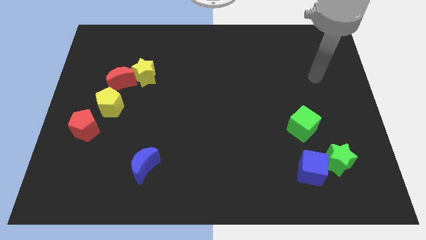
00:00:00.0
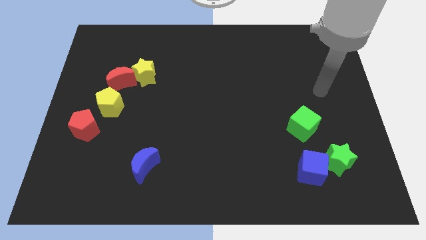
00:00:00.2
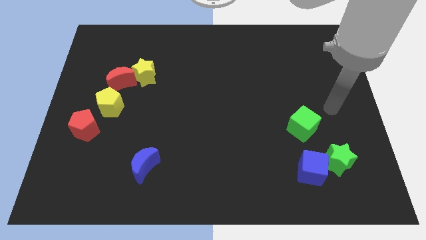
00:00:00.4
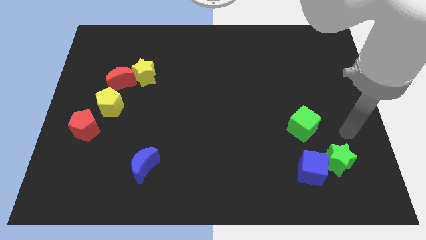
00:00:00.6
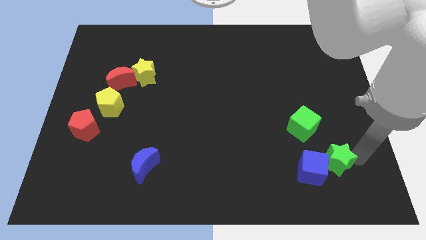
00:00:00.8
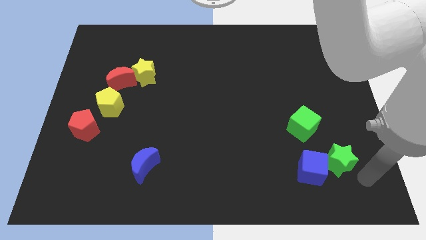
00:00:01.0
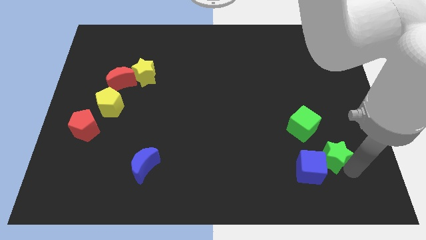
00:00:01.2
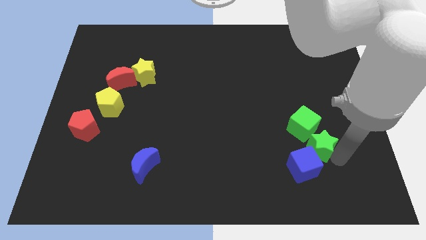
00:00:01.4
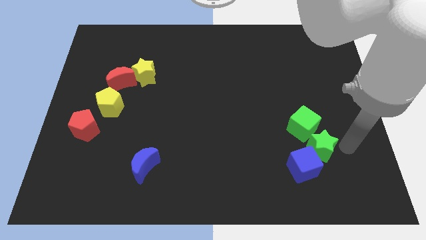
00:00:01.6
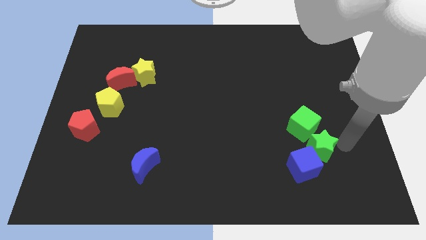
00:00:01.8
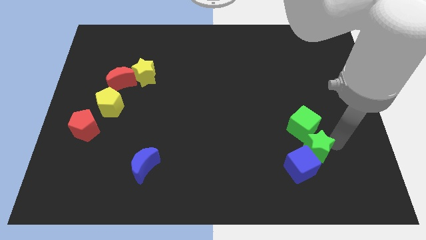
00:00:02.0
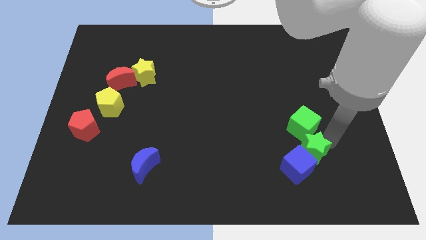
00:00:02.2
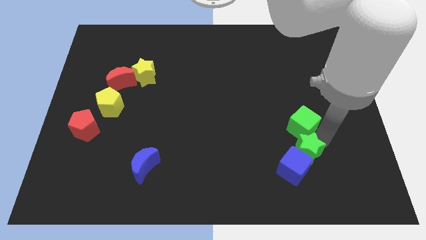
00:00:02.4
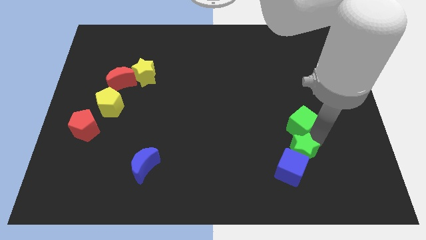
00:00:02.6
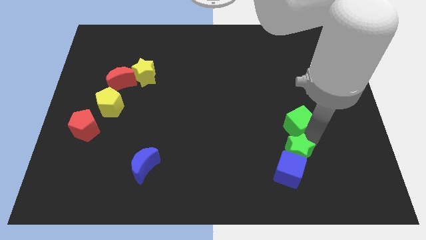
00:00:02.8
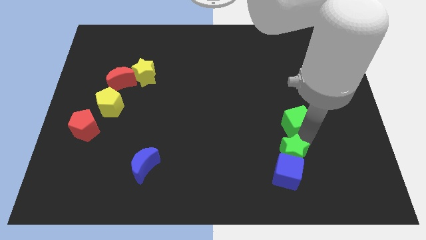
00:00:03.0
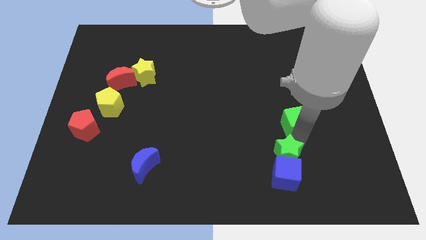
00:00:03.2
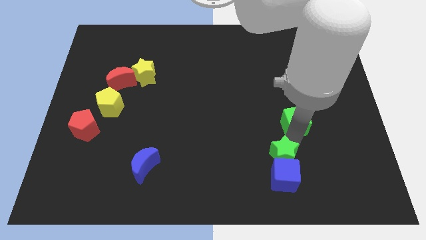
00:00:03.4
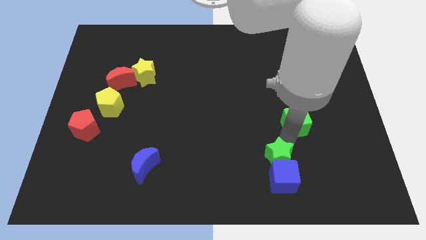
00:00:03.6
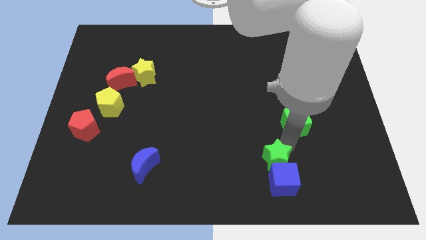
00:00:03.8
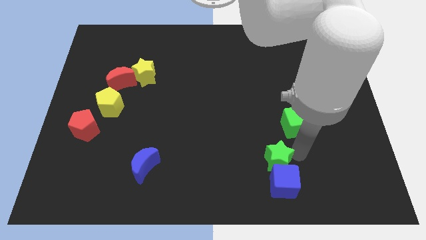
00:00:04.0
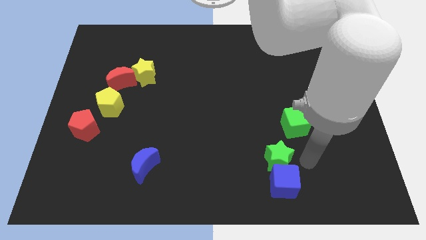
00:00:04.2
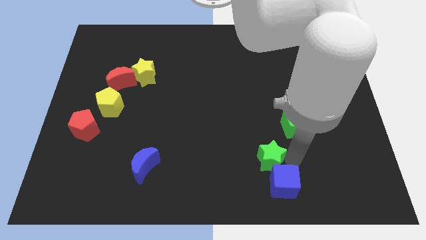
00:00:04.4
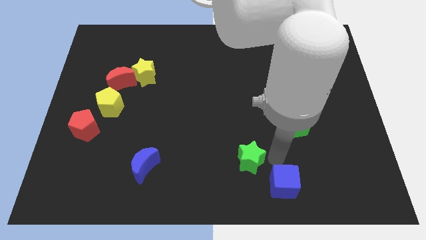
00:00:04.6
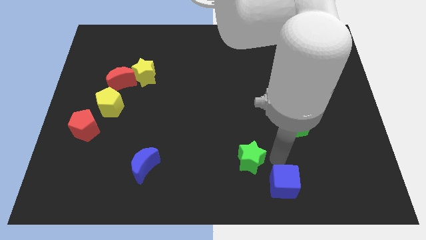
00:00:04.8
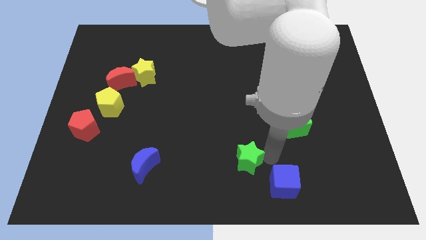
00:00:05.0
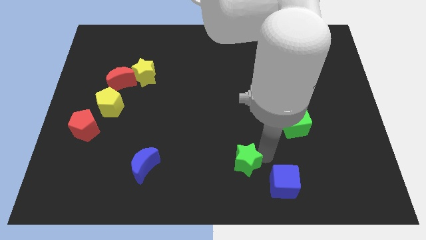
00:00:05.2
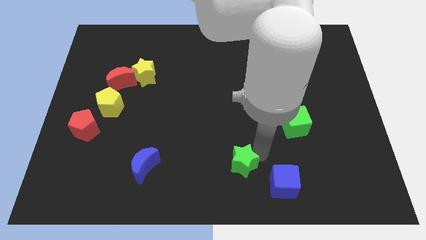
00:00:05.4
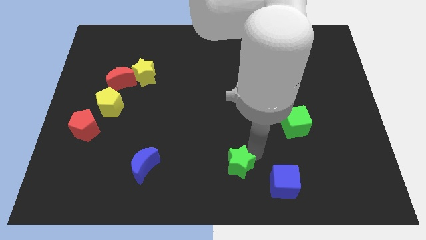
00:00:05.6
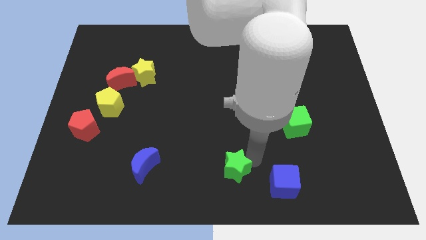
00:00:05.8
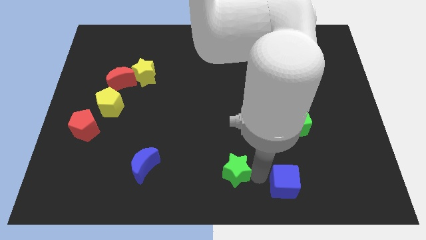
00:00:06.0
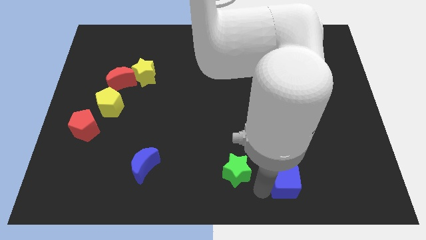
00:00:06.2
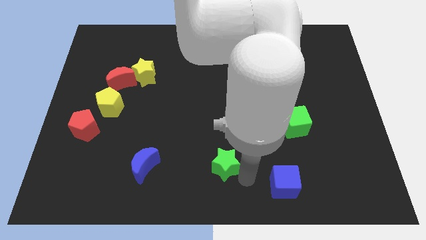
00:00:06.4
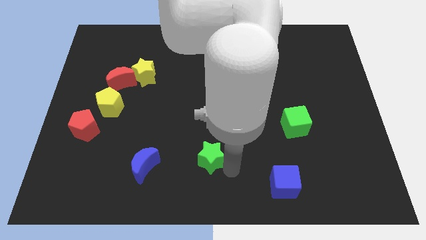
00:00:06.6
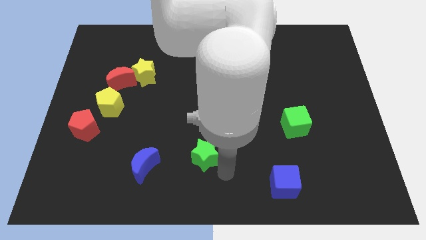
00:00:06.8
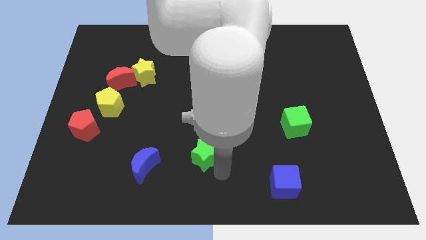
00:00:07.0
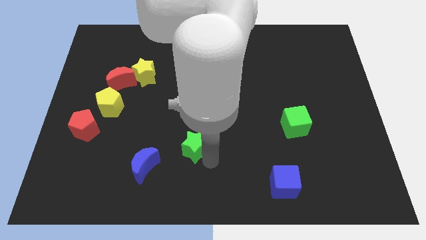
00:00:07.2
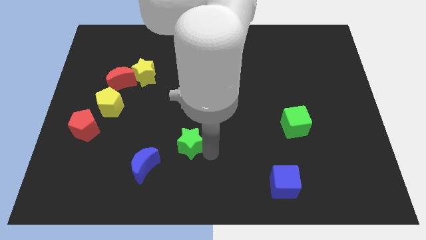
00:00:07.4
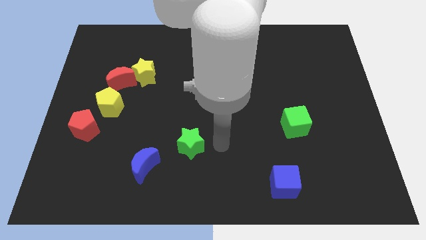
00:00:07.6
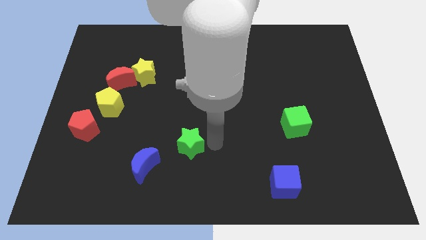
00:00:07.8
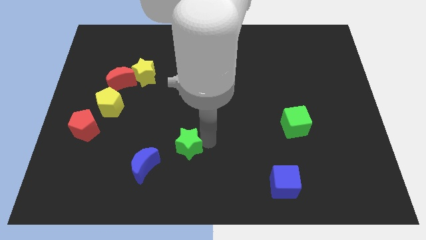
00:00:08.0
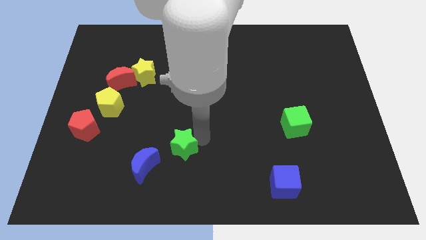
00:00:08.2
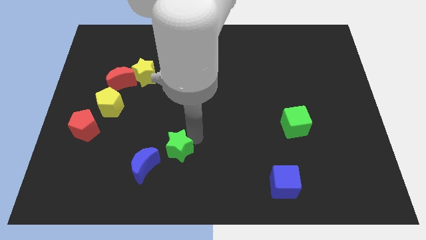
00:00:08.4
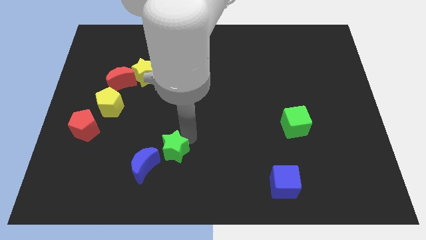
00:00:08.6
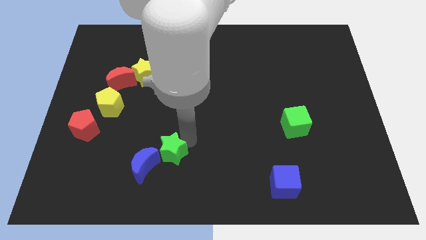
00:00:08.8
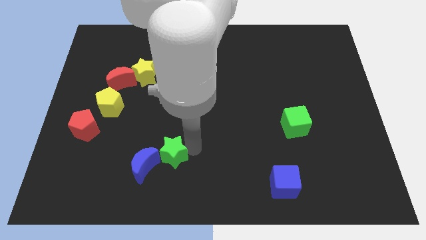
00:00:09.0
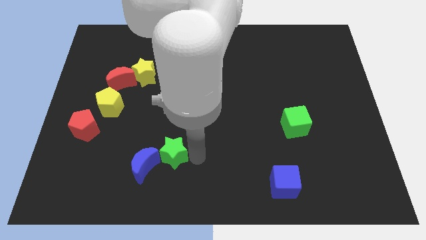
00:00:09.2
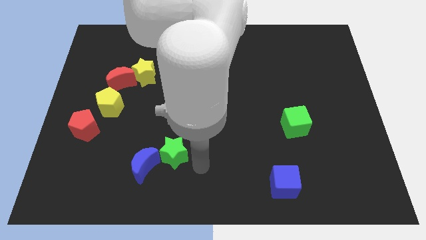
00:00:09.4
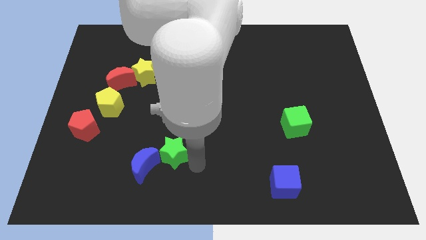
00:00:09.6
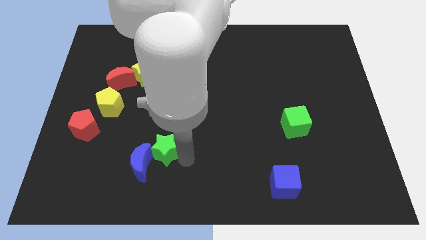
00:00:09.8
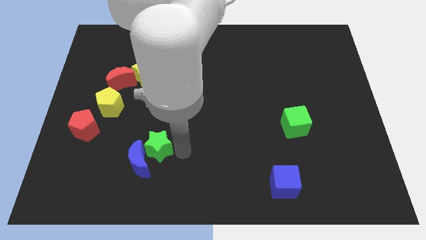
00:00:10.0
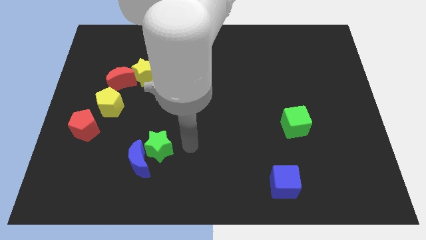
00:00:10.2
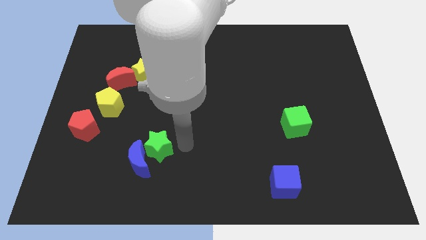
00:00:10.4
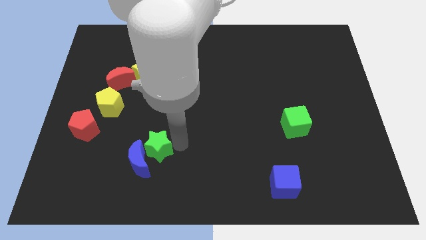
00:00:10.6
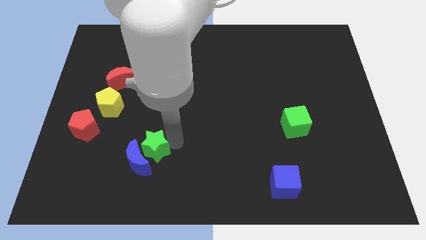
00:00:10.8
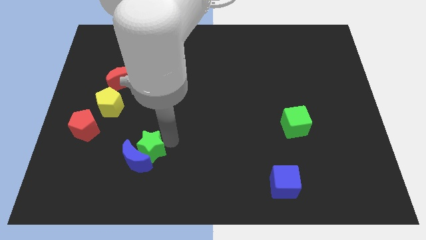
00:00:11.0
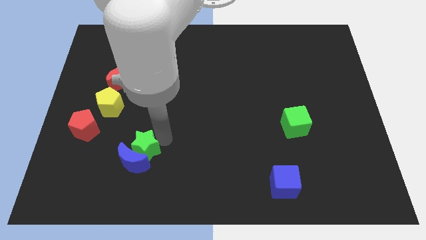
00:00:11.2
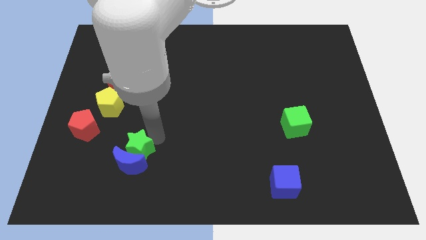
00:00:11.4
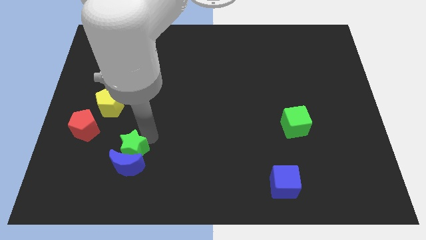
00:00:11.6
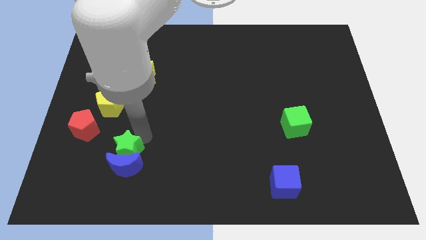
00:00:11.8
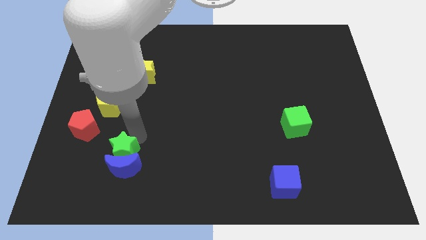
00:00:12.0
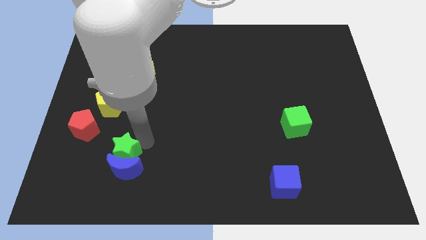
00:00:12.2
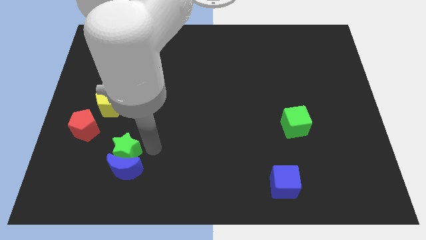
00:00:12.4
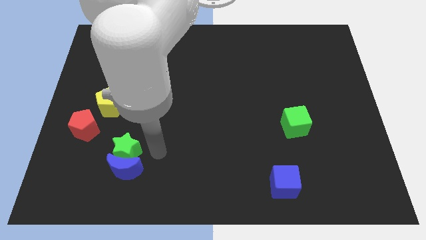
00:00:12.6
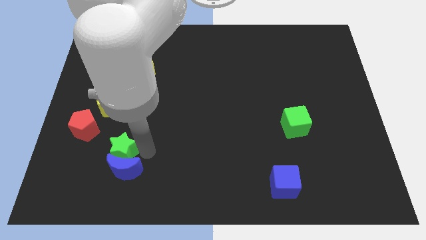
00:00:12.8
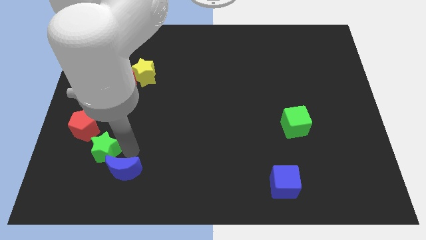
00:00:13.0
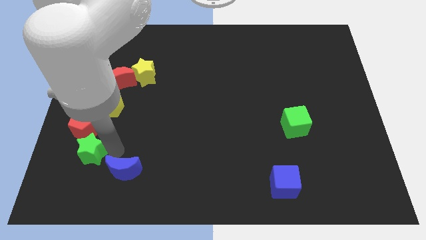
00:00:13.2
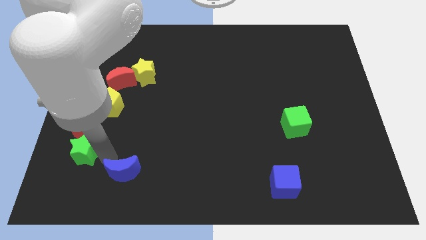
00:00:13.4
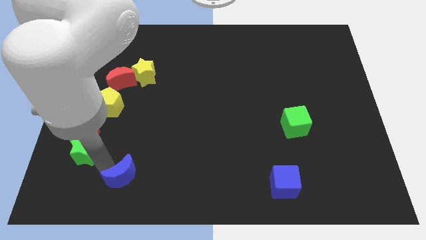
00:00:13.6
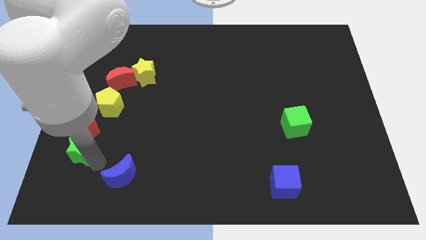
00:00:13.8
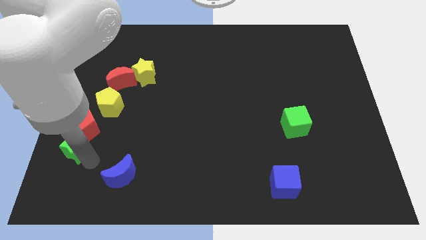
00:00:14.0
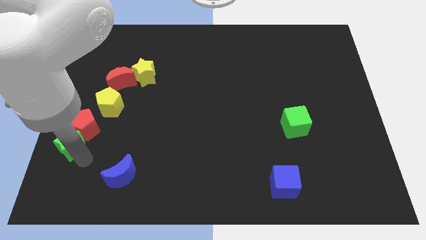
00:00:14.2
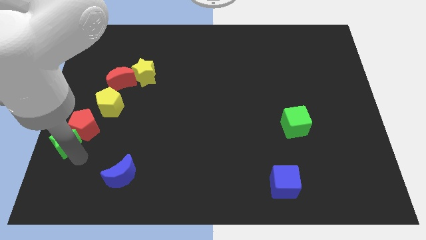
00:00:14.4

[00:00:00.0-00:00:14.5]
slide the green star to the center left
